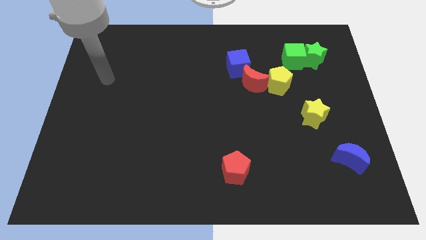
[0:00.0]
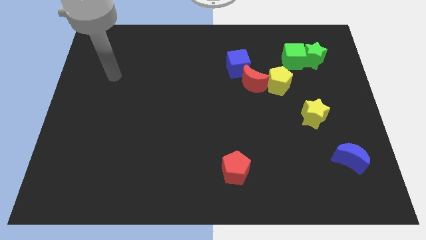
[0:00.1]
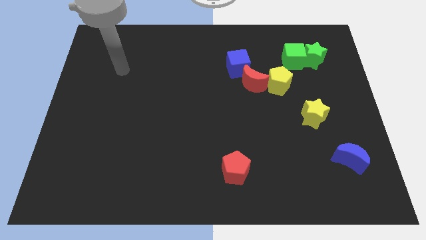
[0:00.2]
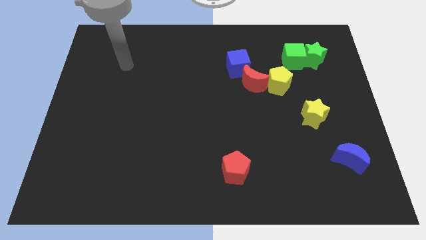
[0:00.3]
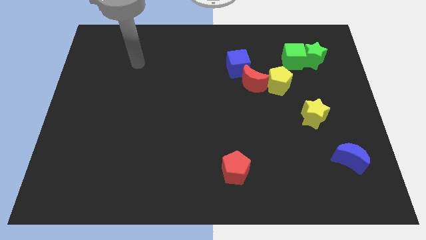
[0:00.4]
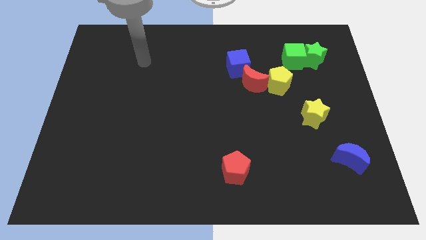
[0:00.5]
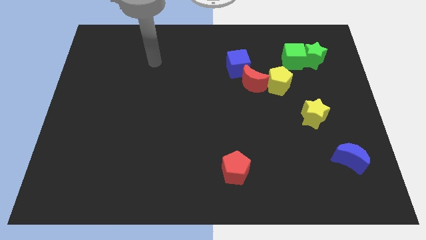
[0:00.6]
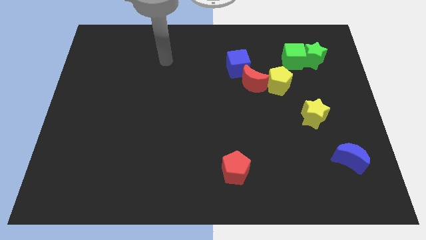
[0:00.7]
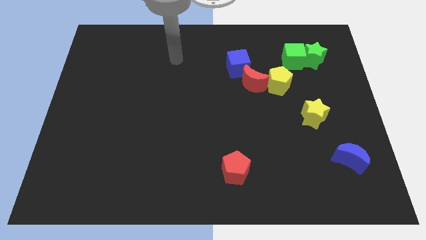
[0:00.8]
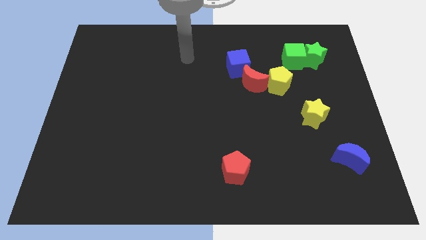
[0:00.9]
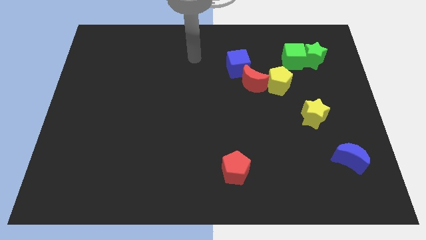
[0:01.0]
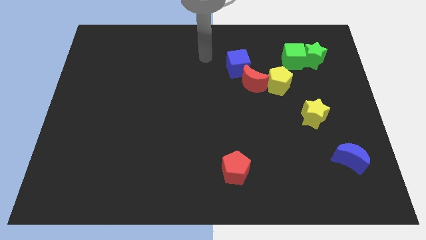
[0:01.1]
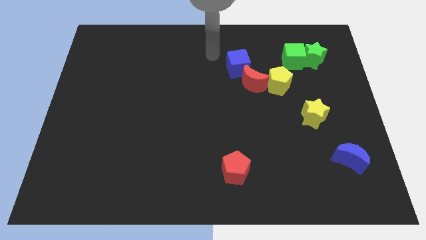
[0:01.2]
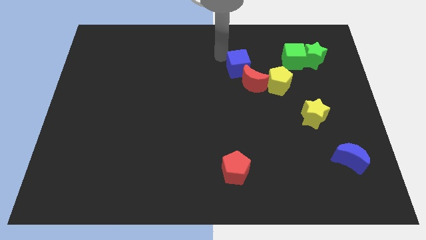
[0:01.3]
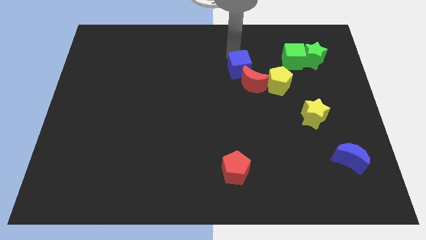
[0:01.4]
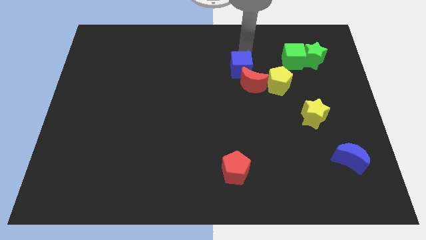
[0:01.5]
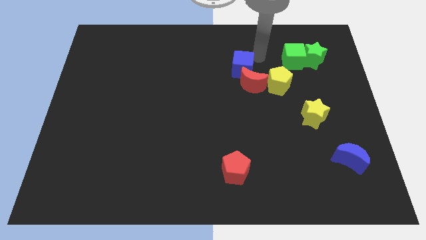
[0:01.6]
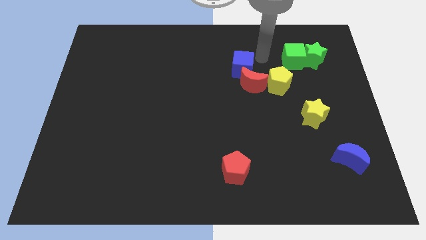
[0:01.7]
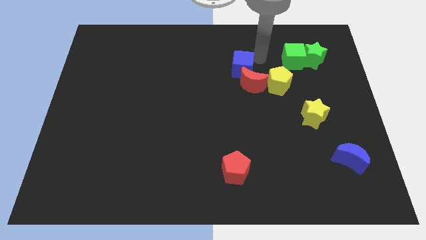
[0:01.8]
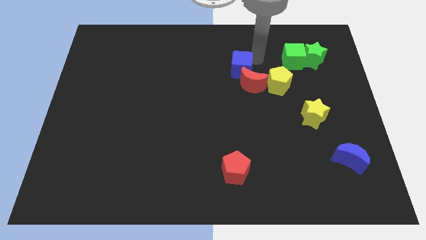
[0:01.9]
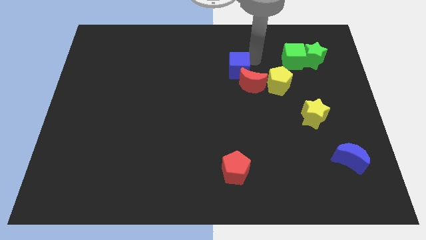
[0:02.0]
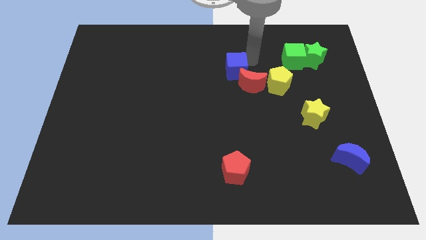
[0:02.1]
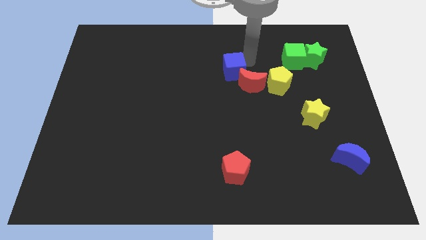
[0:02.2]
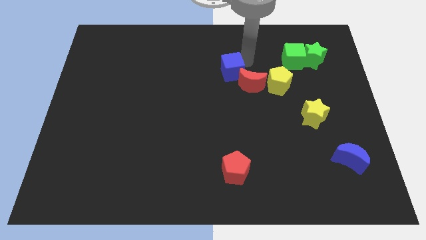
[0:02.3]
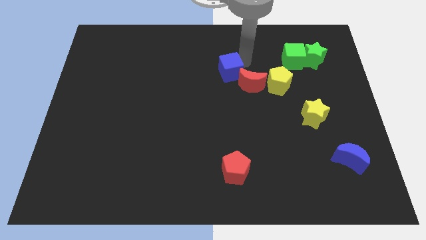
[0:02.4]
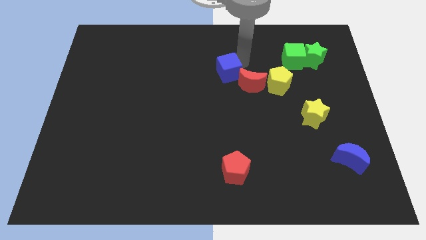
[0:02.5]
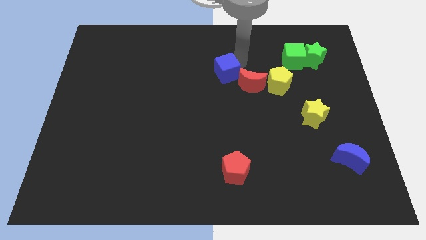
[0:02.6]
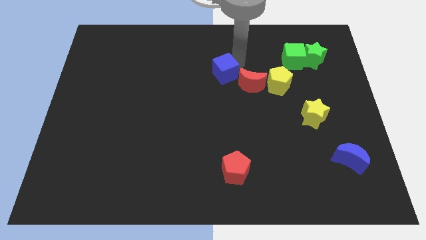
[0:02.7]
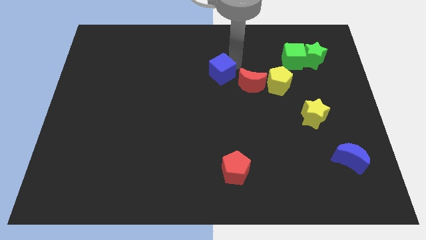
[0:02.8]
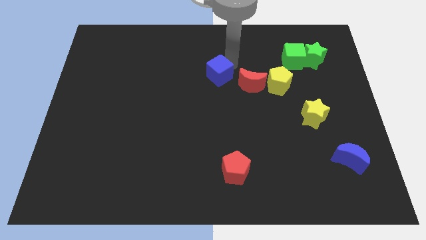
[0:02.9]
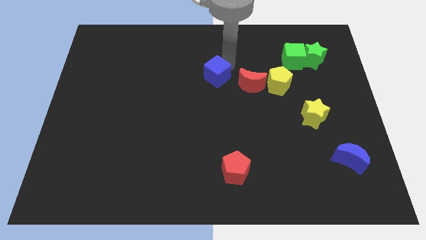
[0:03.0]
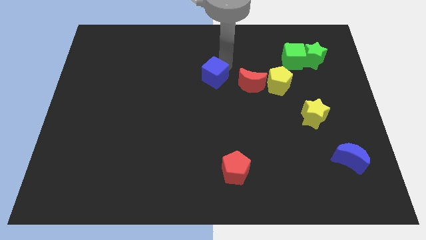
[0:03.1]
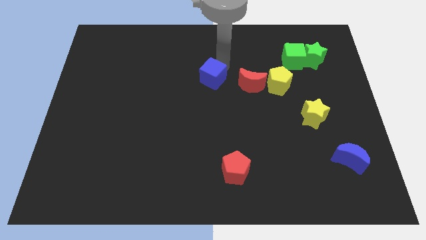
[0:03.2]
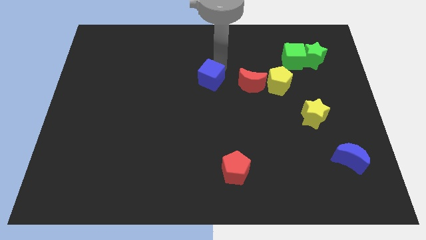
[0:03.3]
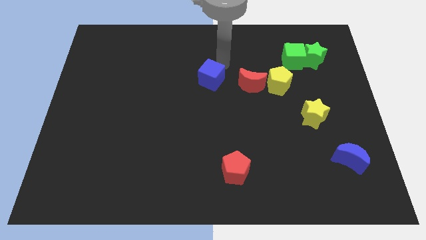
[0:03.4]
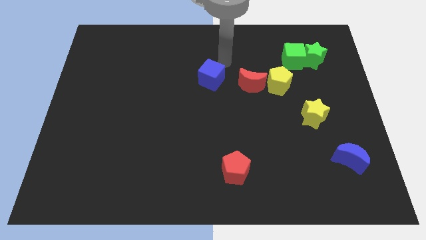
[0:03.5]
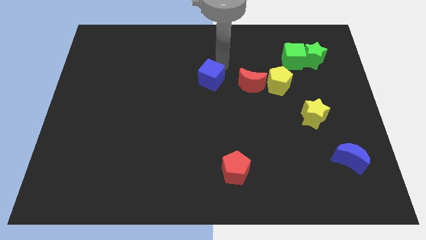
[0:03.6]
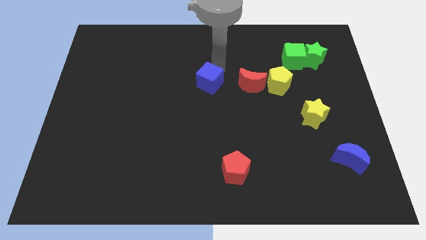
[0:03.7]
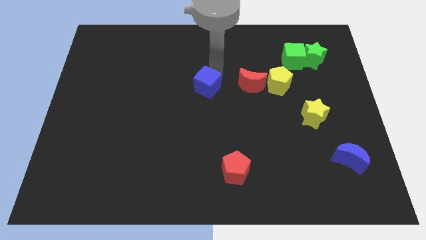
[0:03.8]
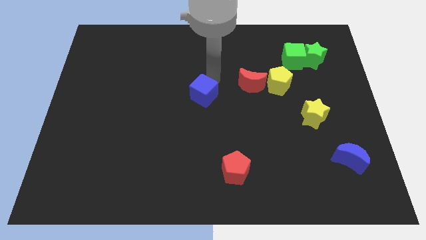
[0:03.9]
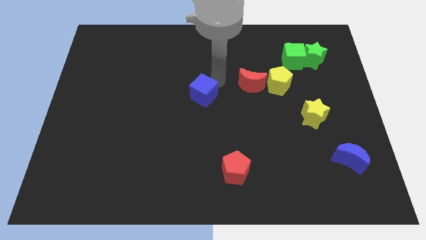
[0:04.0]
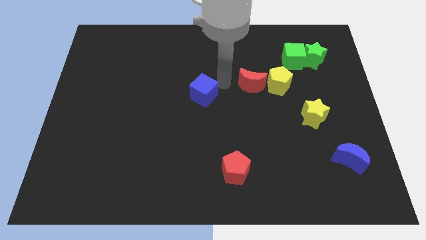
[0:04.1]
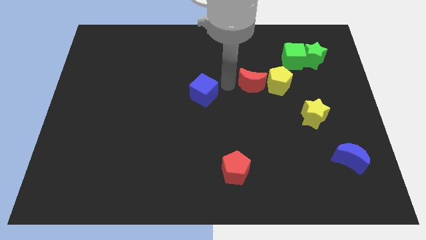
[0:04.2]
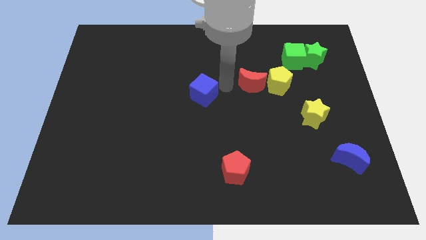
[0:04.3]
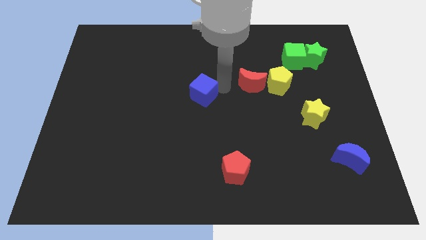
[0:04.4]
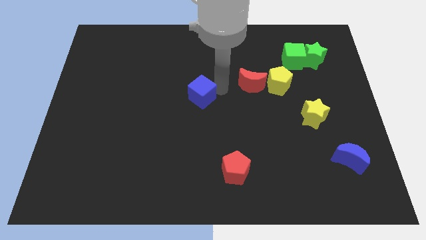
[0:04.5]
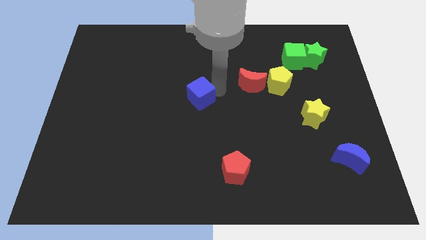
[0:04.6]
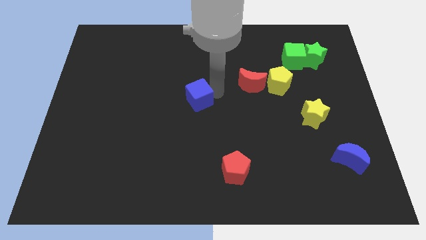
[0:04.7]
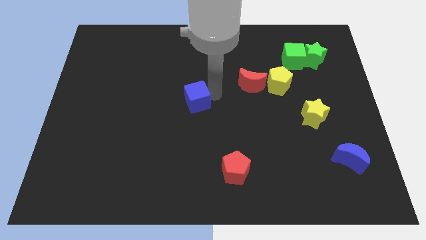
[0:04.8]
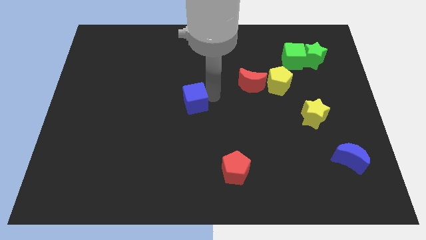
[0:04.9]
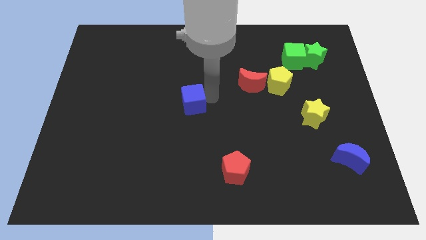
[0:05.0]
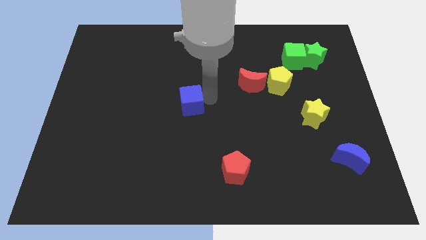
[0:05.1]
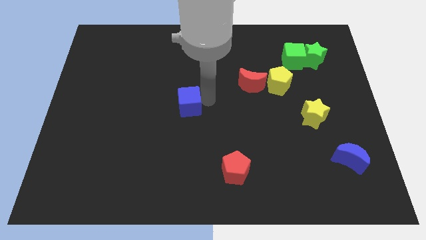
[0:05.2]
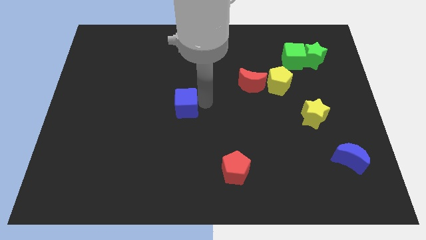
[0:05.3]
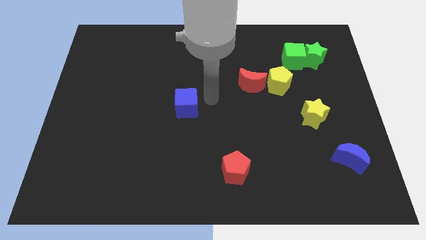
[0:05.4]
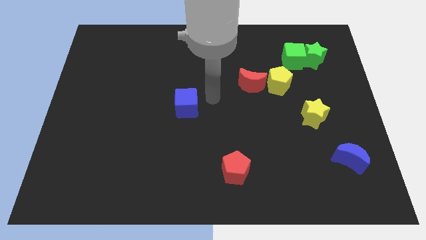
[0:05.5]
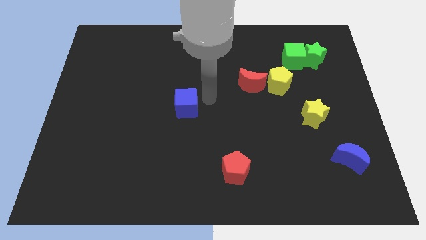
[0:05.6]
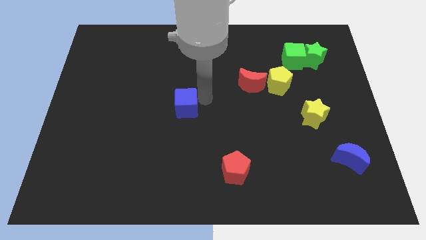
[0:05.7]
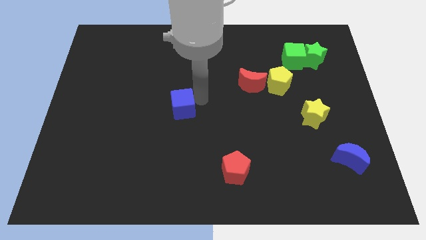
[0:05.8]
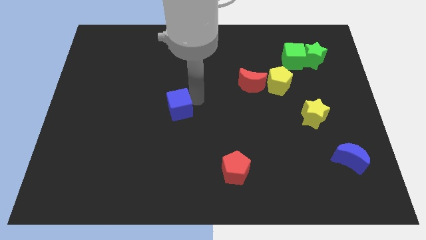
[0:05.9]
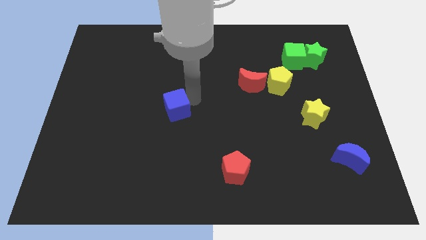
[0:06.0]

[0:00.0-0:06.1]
slide the blue cube down and then to the left

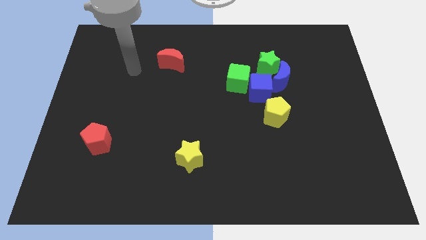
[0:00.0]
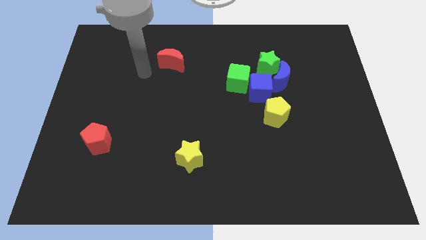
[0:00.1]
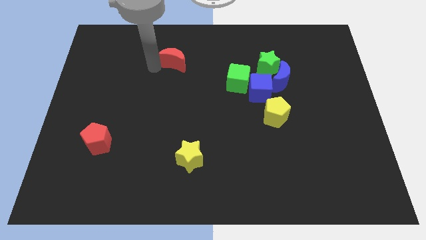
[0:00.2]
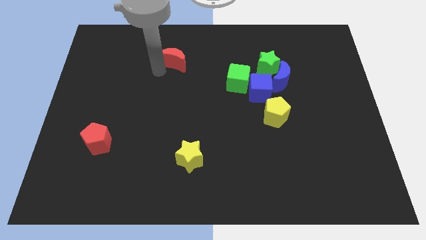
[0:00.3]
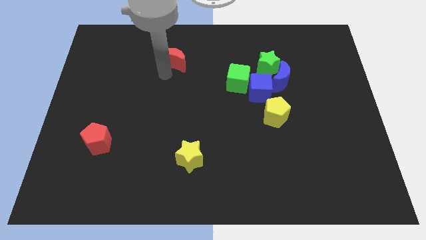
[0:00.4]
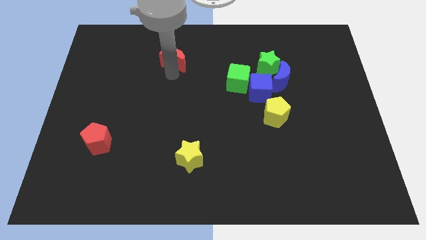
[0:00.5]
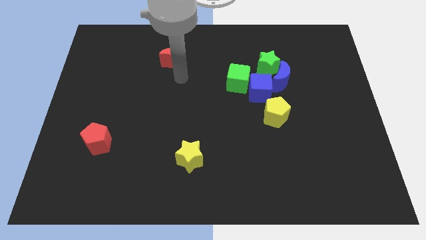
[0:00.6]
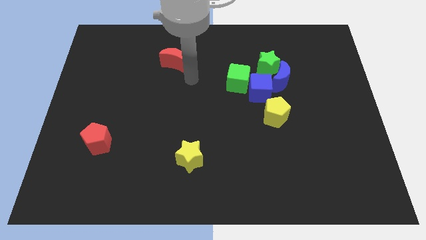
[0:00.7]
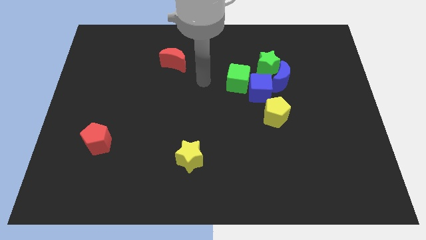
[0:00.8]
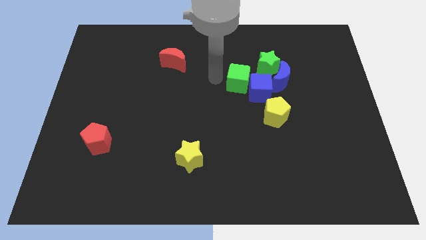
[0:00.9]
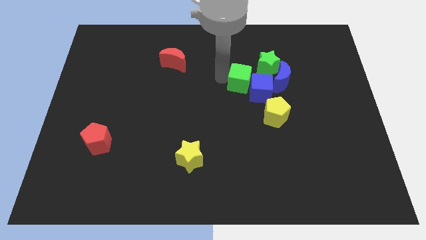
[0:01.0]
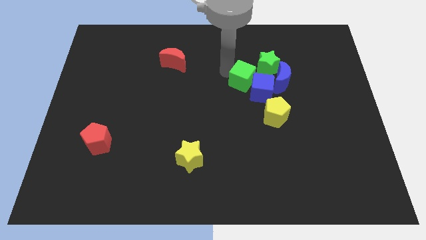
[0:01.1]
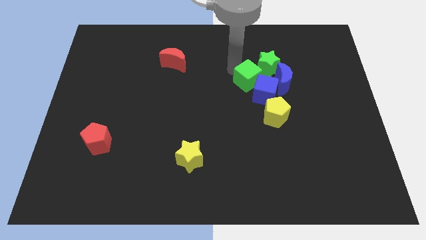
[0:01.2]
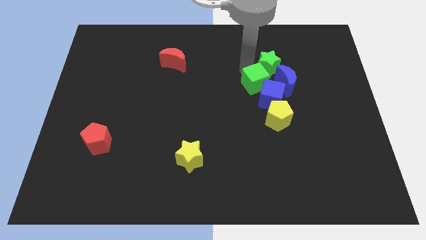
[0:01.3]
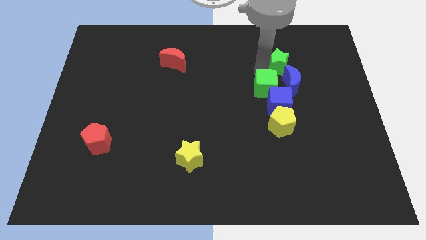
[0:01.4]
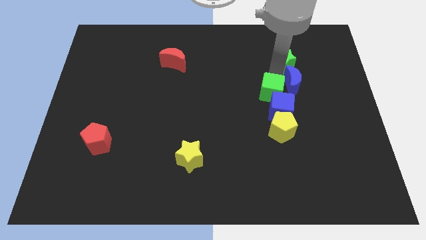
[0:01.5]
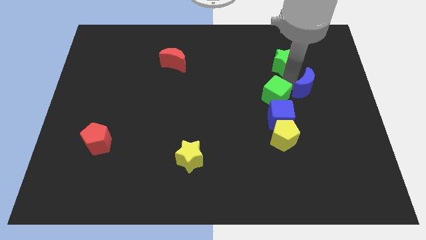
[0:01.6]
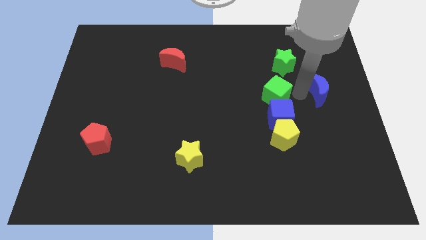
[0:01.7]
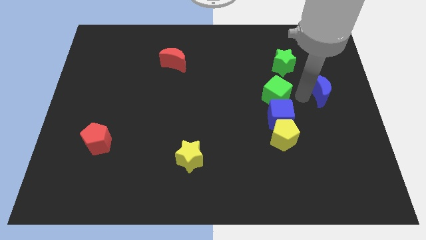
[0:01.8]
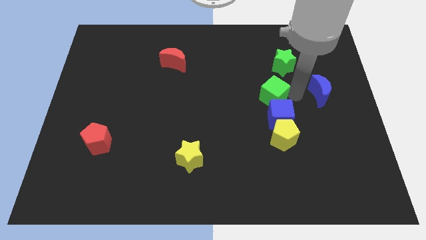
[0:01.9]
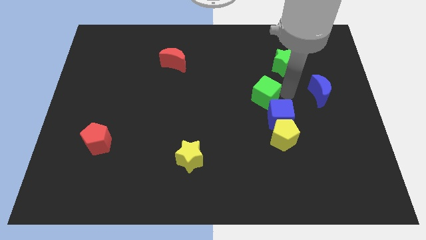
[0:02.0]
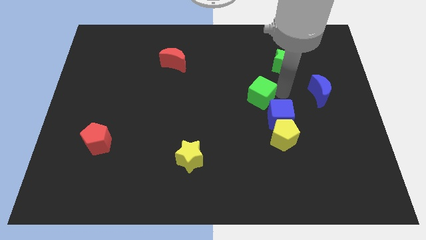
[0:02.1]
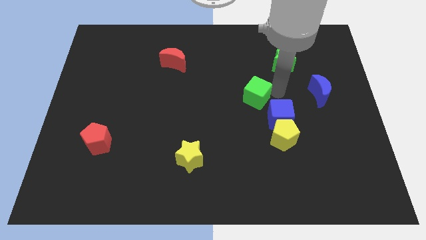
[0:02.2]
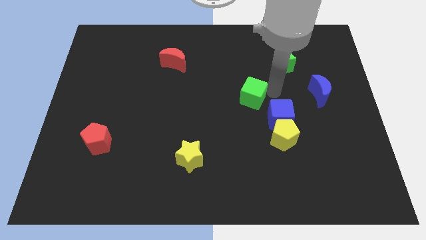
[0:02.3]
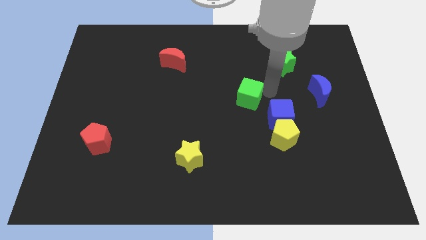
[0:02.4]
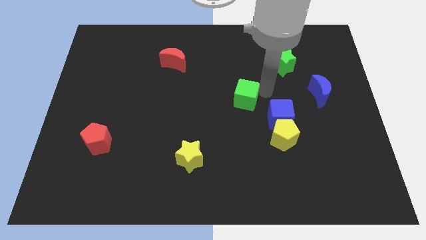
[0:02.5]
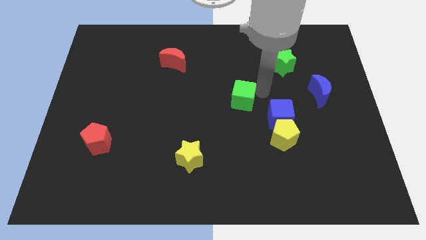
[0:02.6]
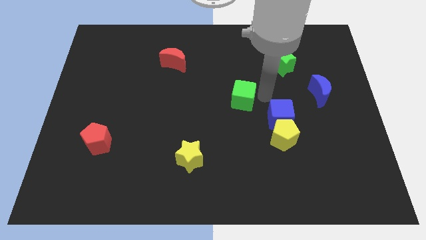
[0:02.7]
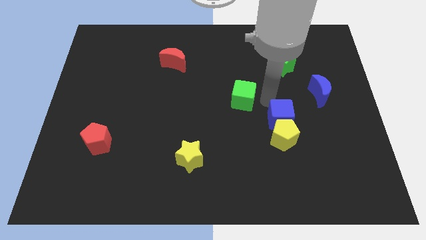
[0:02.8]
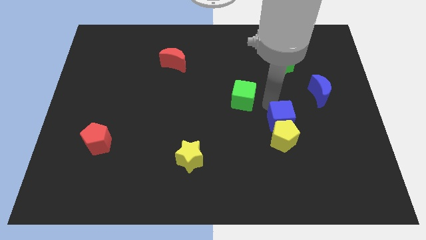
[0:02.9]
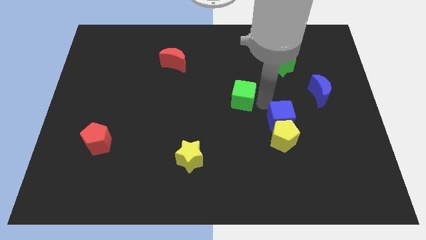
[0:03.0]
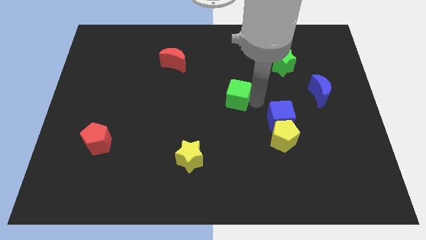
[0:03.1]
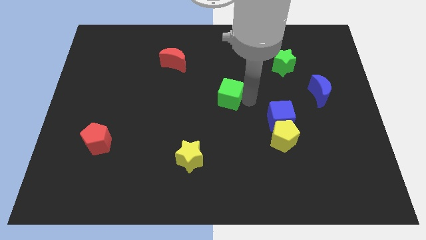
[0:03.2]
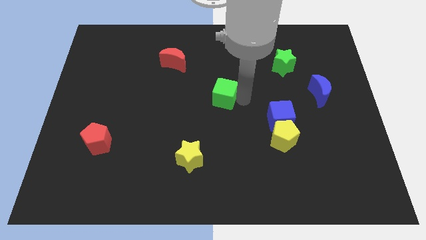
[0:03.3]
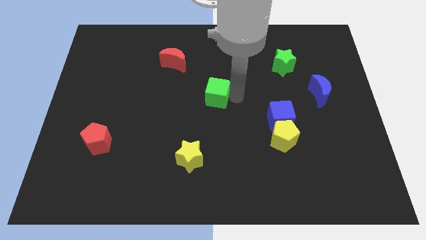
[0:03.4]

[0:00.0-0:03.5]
push the green cube down and left somewhat
